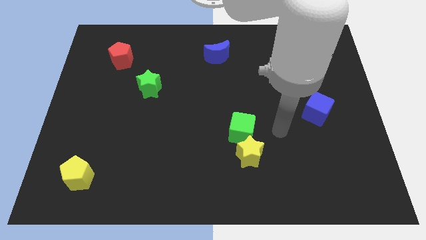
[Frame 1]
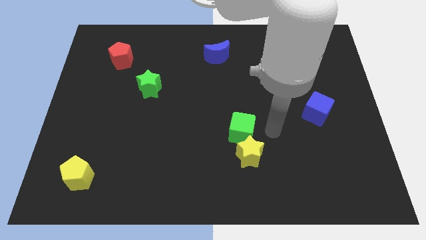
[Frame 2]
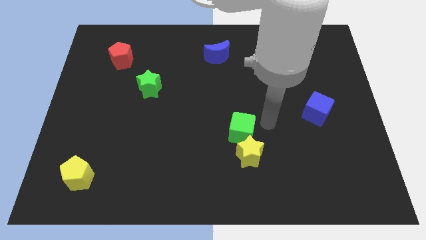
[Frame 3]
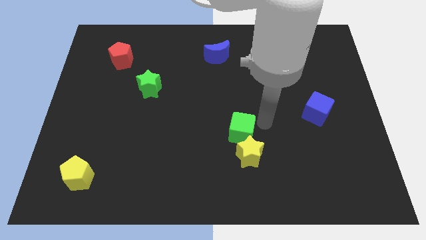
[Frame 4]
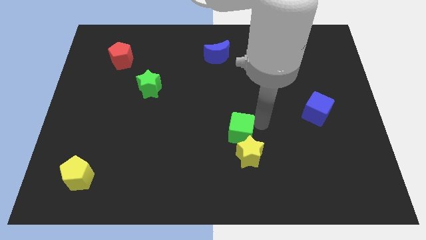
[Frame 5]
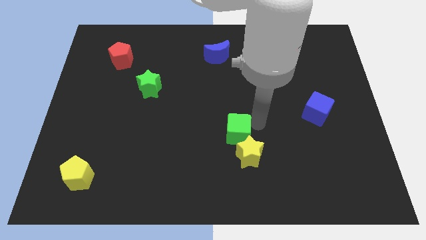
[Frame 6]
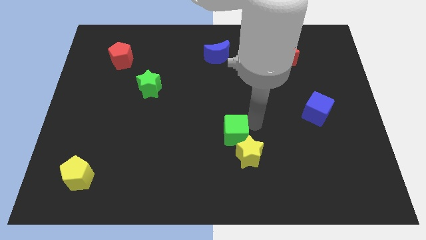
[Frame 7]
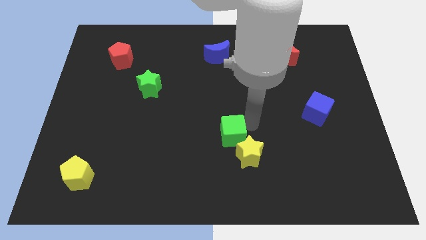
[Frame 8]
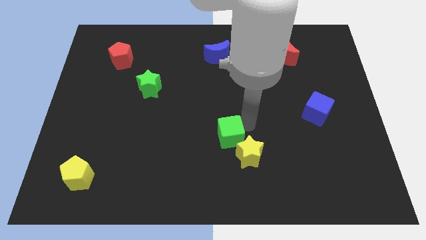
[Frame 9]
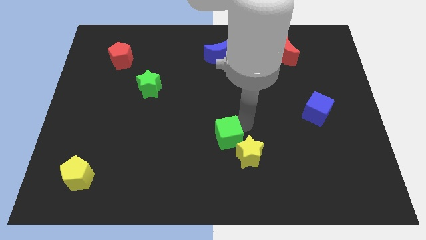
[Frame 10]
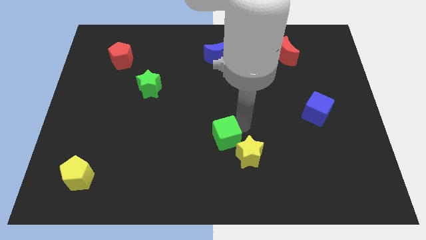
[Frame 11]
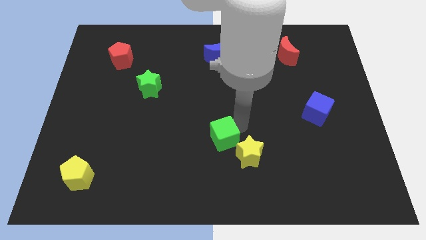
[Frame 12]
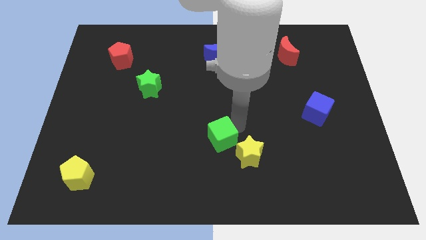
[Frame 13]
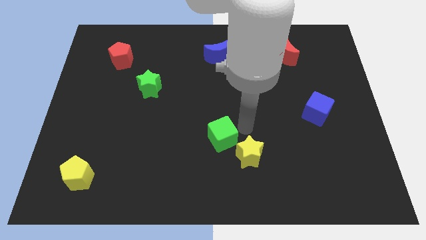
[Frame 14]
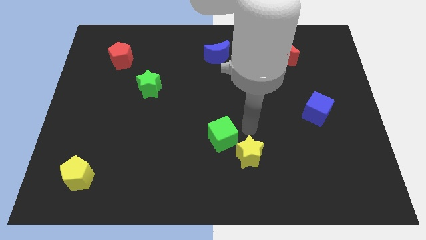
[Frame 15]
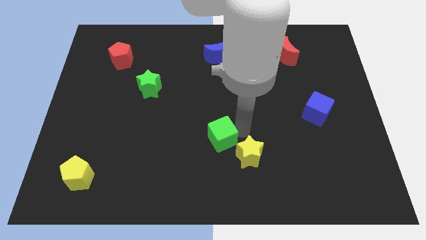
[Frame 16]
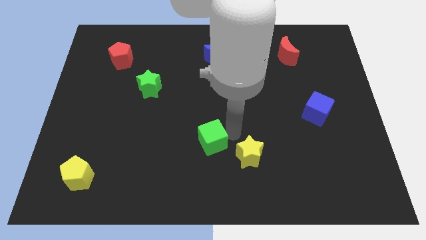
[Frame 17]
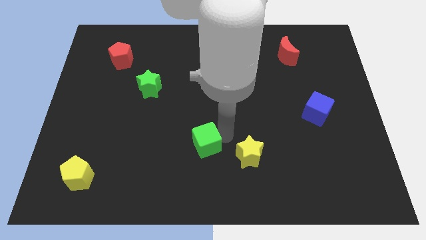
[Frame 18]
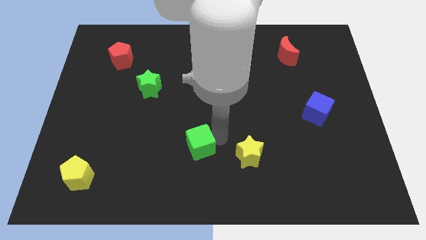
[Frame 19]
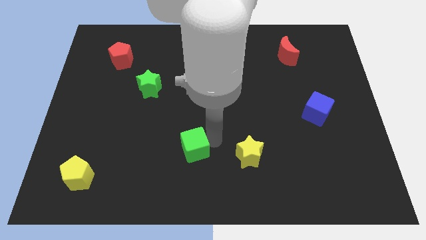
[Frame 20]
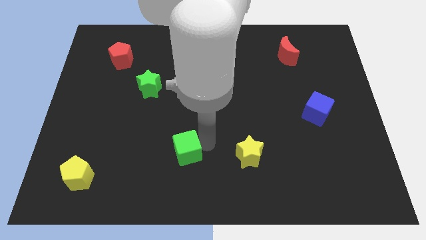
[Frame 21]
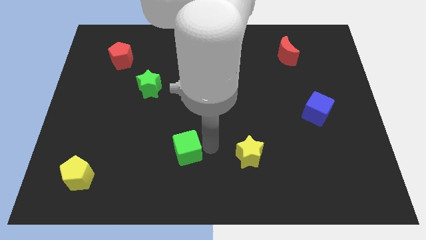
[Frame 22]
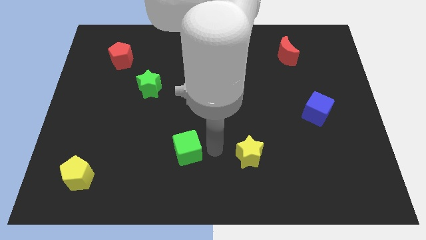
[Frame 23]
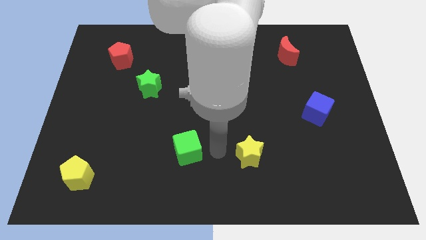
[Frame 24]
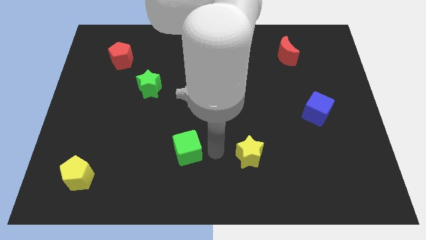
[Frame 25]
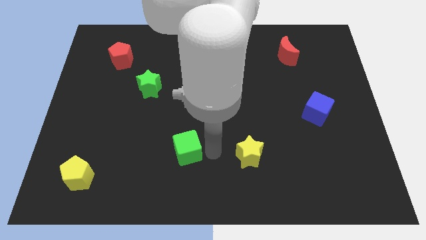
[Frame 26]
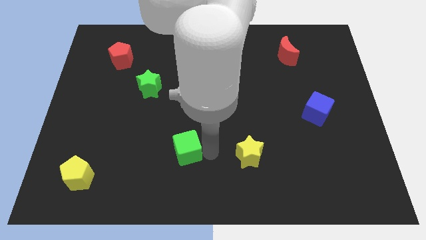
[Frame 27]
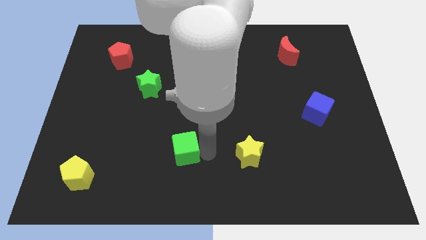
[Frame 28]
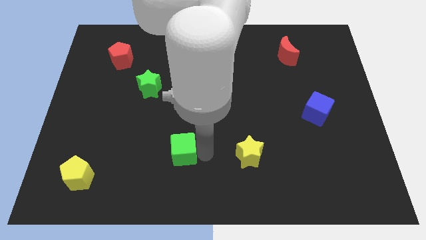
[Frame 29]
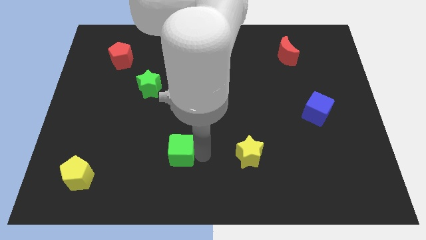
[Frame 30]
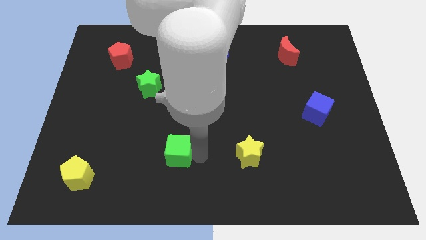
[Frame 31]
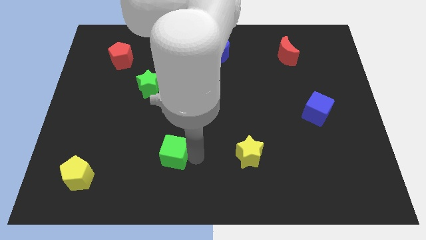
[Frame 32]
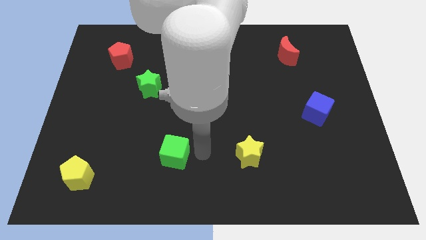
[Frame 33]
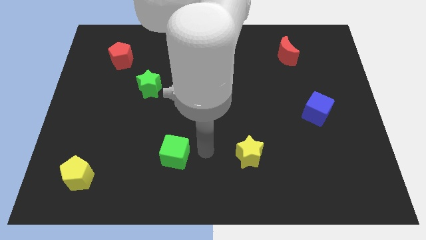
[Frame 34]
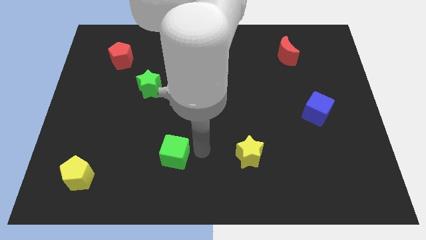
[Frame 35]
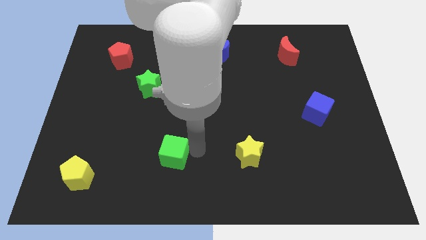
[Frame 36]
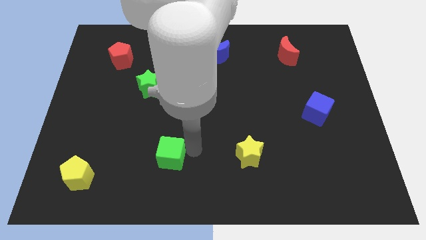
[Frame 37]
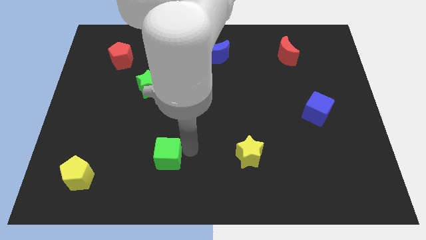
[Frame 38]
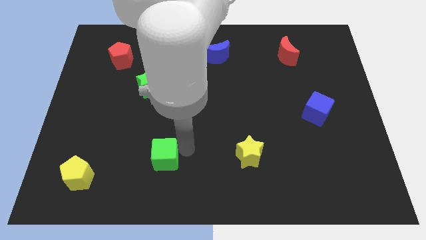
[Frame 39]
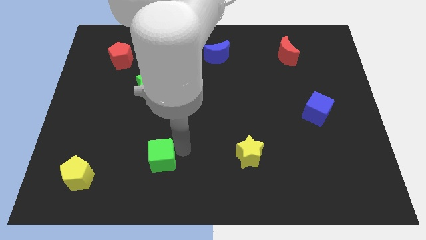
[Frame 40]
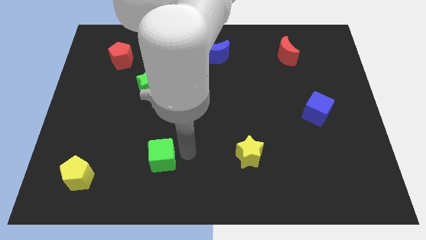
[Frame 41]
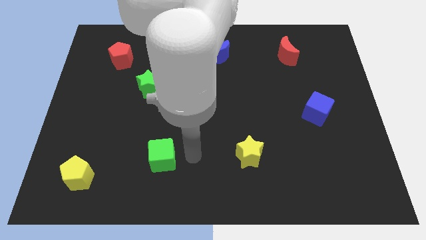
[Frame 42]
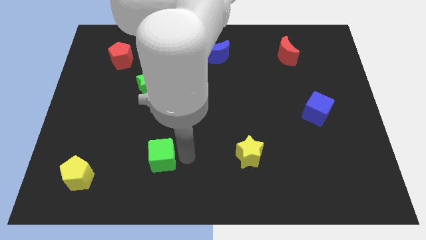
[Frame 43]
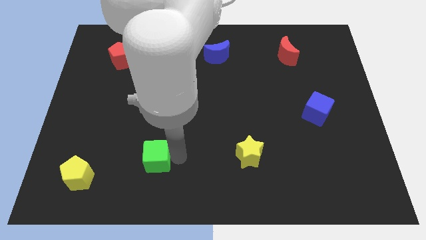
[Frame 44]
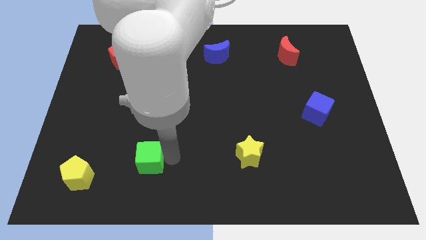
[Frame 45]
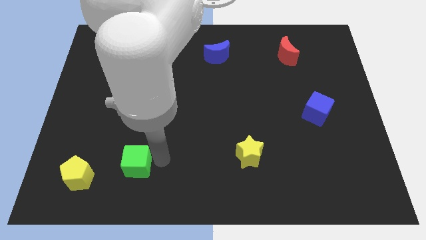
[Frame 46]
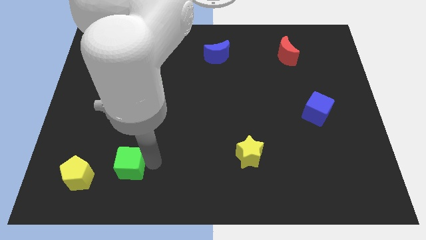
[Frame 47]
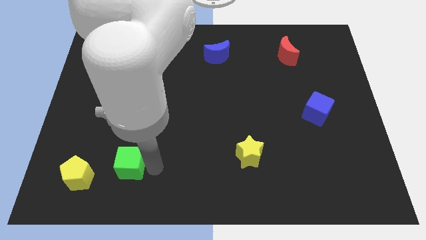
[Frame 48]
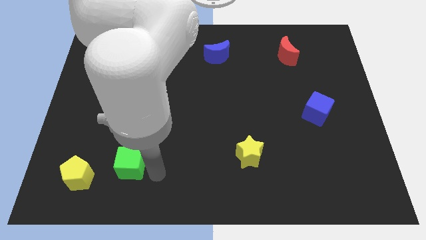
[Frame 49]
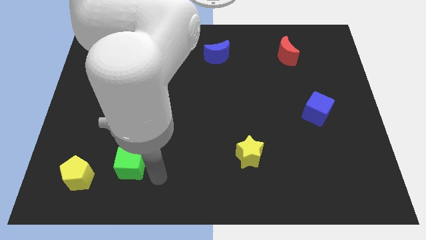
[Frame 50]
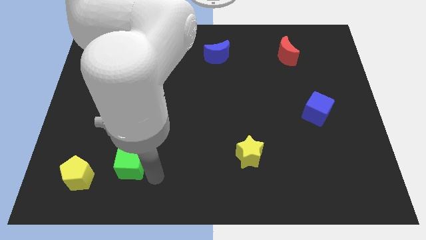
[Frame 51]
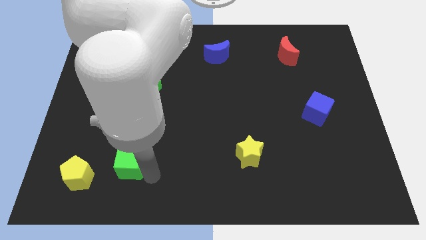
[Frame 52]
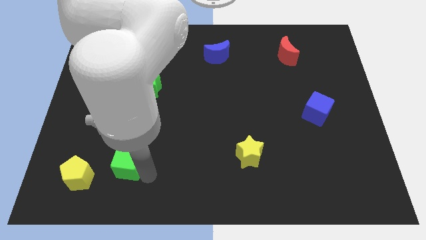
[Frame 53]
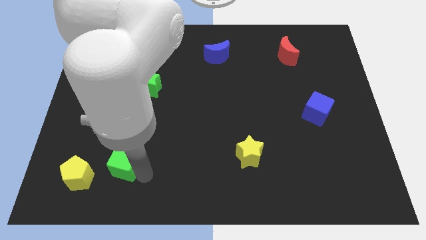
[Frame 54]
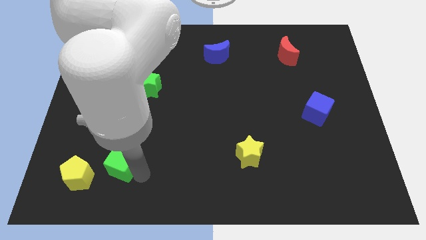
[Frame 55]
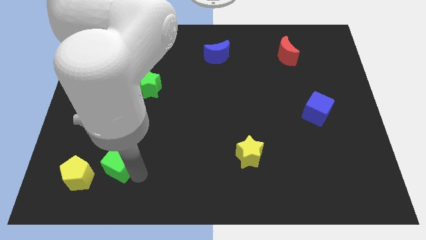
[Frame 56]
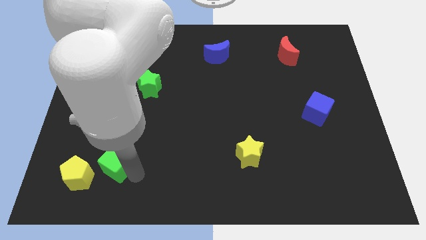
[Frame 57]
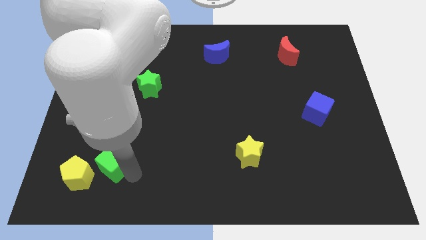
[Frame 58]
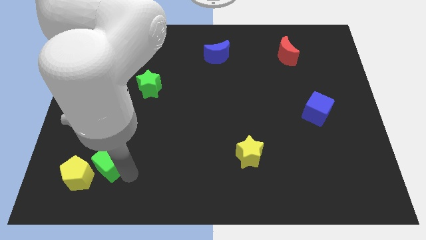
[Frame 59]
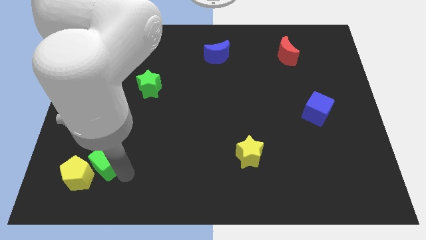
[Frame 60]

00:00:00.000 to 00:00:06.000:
put the green cube next to the yellow pentagon

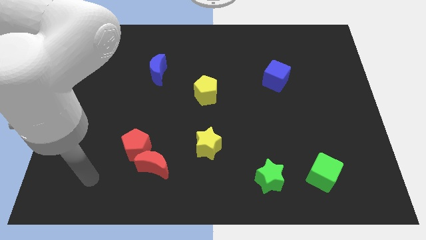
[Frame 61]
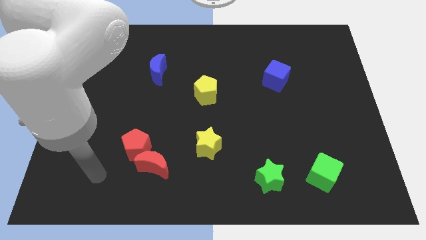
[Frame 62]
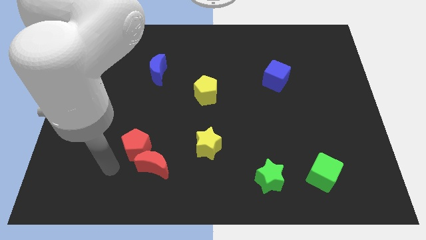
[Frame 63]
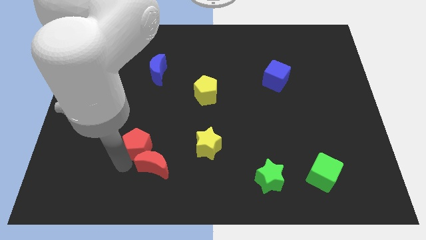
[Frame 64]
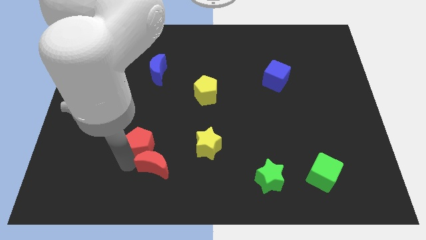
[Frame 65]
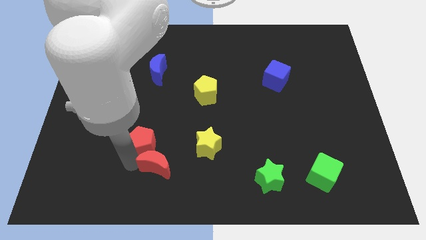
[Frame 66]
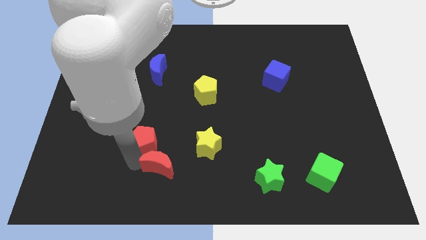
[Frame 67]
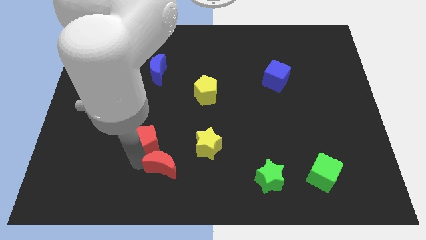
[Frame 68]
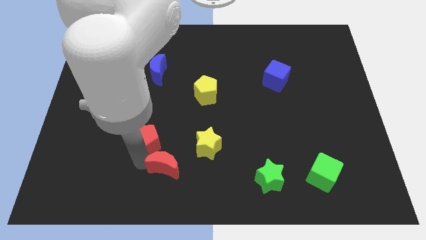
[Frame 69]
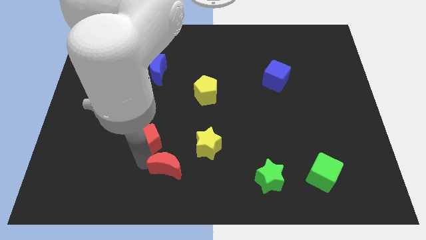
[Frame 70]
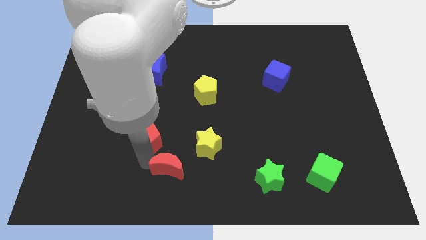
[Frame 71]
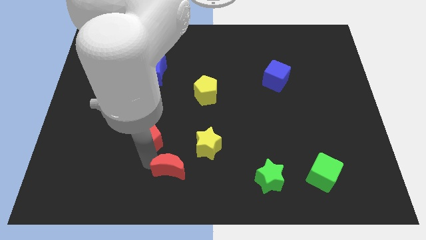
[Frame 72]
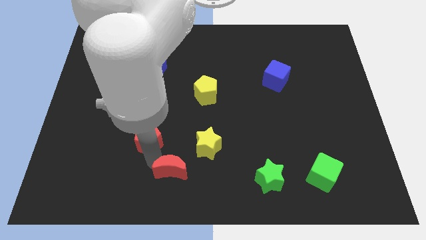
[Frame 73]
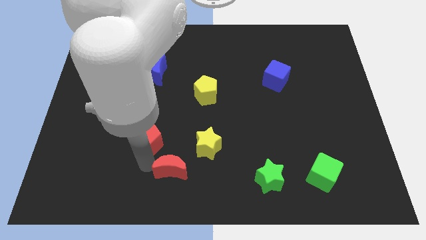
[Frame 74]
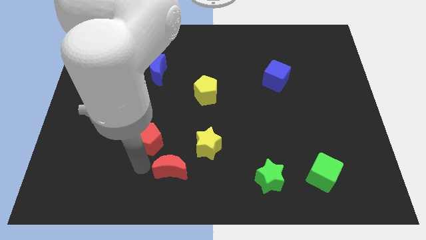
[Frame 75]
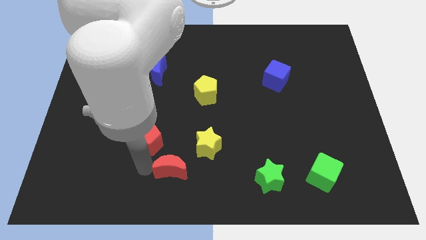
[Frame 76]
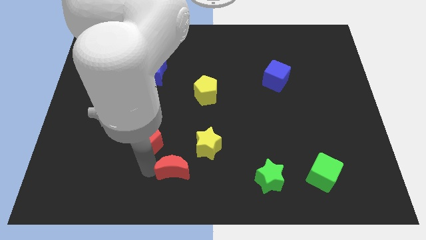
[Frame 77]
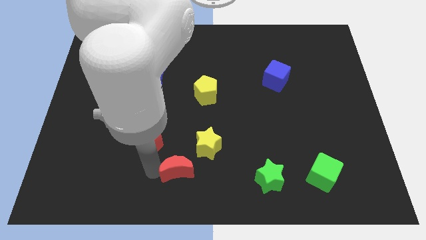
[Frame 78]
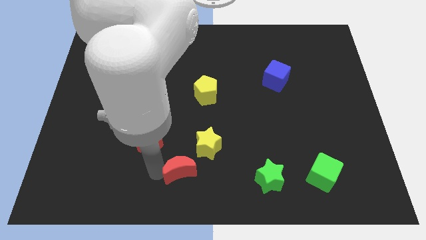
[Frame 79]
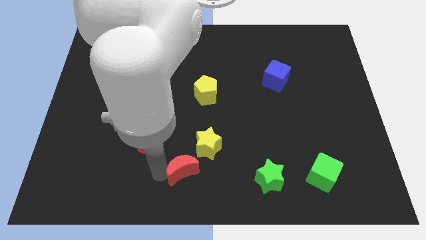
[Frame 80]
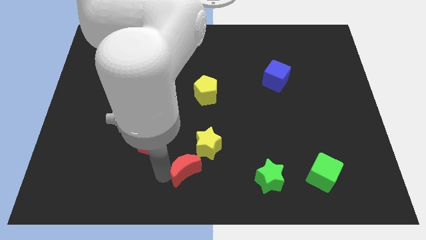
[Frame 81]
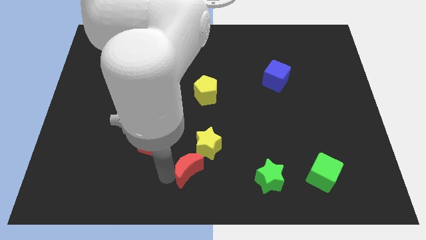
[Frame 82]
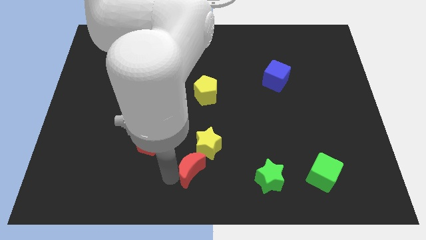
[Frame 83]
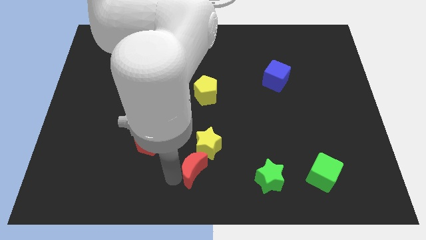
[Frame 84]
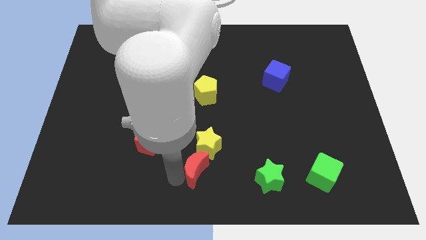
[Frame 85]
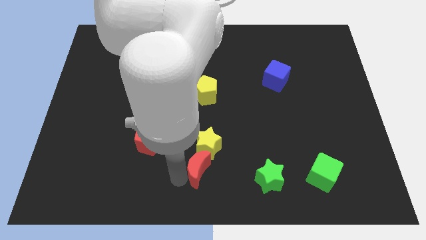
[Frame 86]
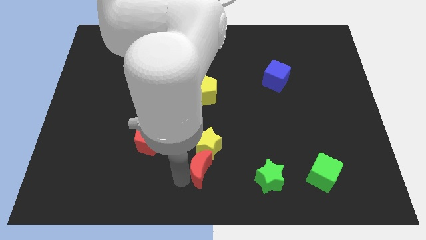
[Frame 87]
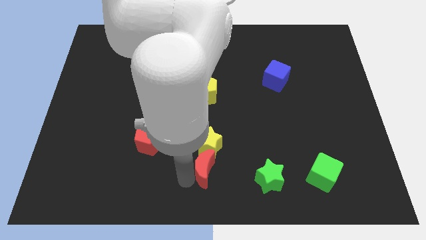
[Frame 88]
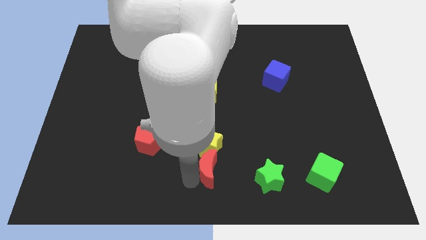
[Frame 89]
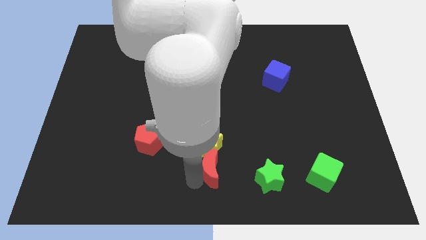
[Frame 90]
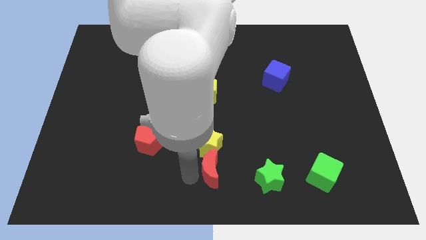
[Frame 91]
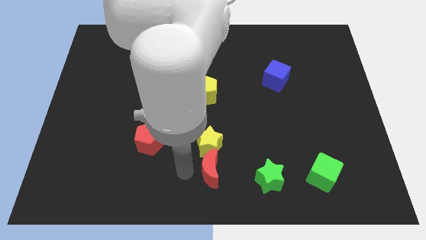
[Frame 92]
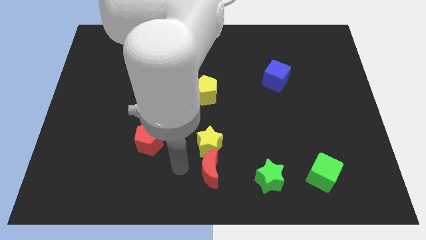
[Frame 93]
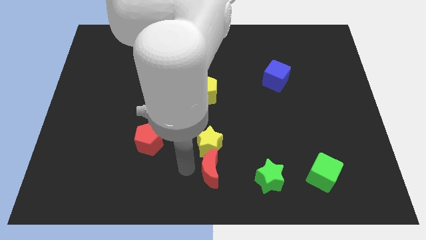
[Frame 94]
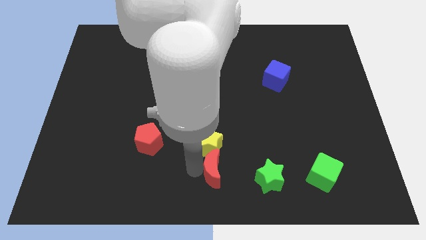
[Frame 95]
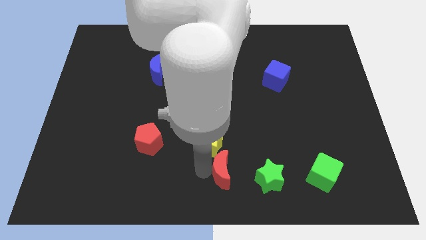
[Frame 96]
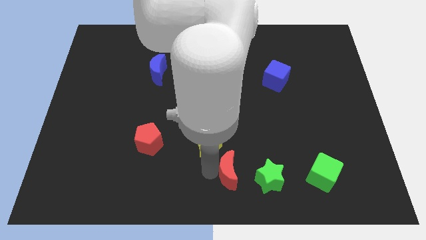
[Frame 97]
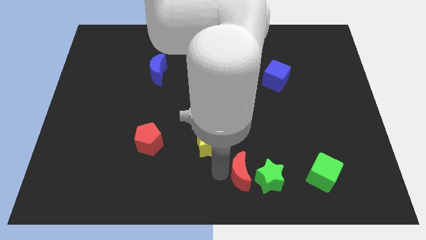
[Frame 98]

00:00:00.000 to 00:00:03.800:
push the red moon to the green star
